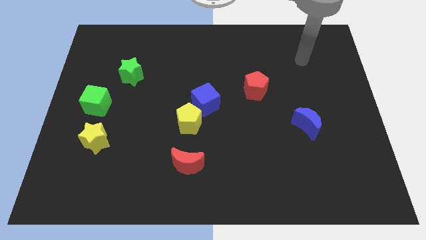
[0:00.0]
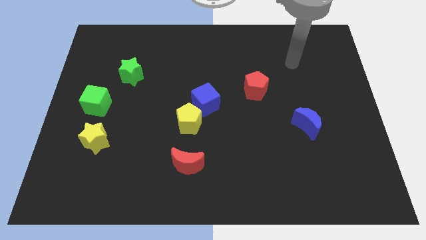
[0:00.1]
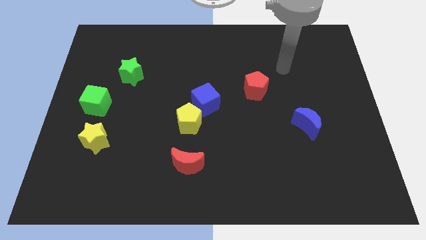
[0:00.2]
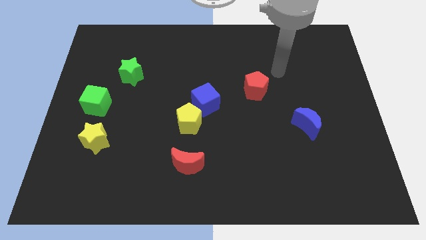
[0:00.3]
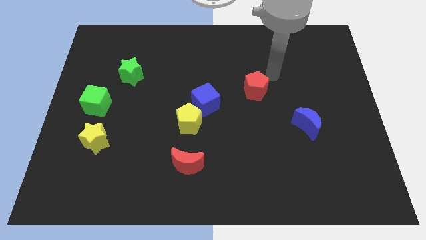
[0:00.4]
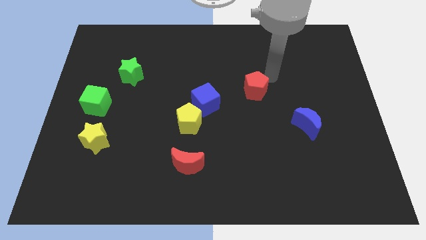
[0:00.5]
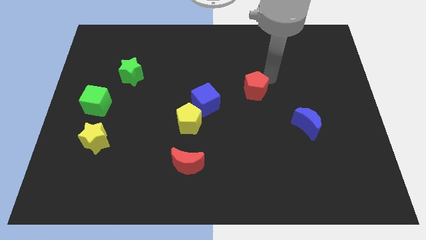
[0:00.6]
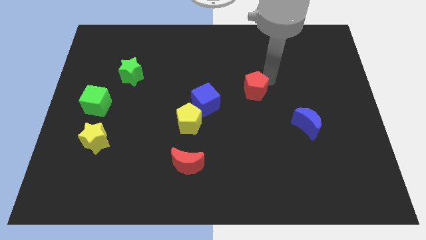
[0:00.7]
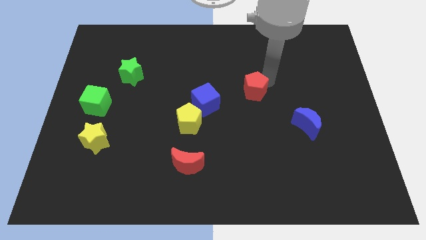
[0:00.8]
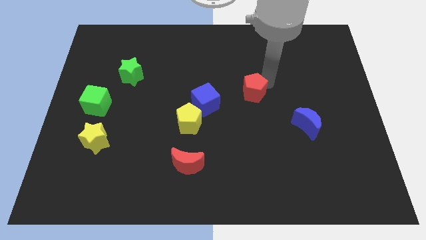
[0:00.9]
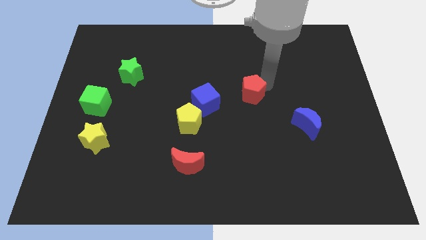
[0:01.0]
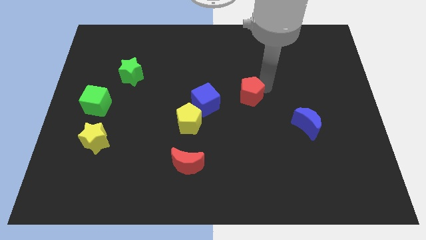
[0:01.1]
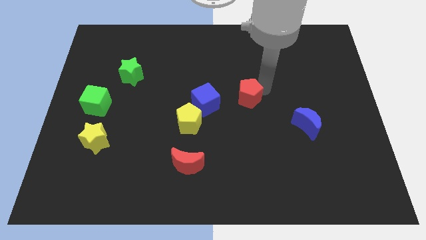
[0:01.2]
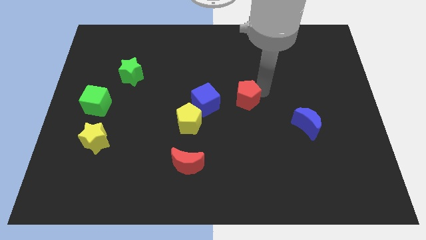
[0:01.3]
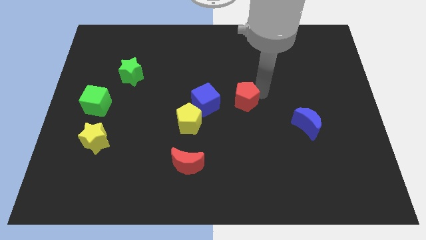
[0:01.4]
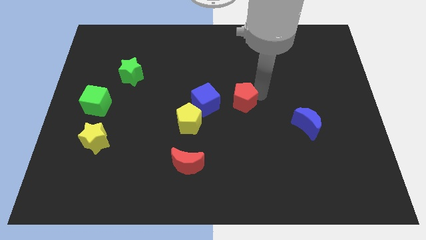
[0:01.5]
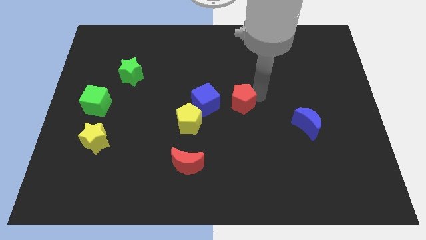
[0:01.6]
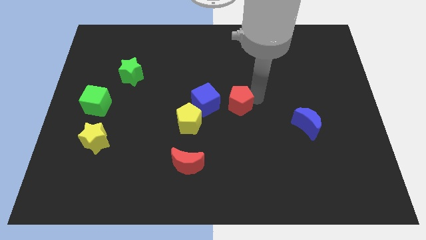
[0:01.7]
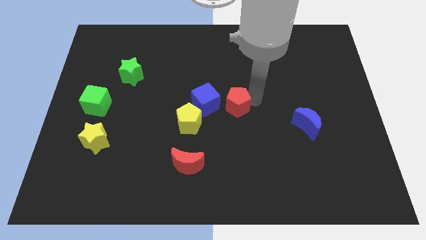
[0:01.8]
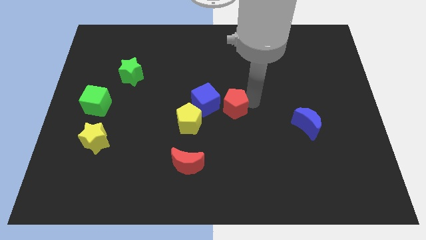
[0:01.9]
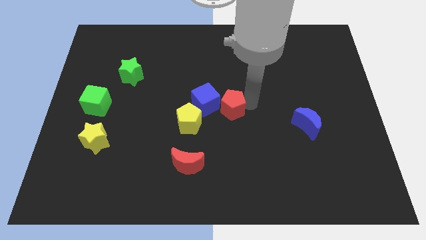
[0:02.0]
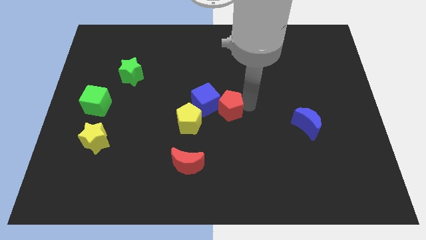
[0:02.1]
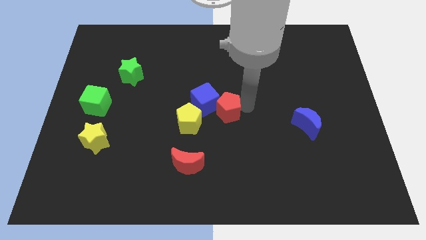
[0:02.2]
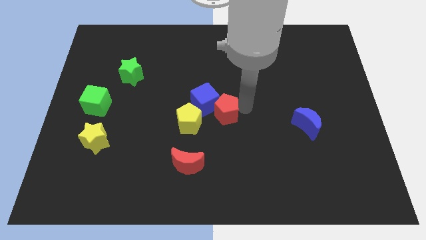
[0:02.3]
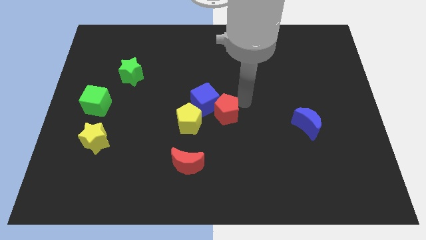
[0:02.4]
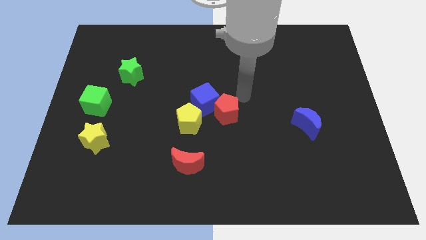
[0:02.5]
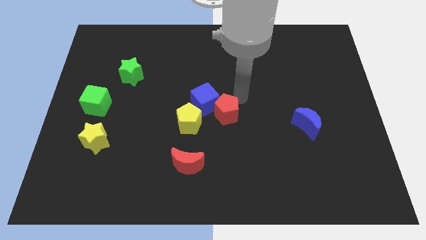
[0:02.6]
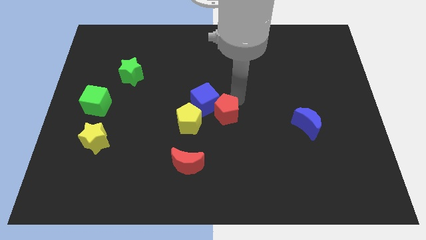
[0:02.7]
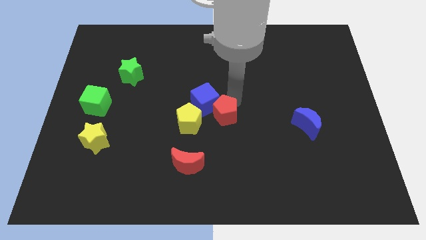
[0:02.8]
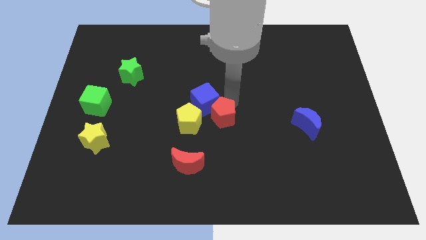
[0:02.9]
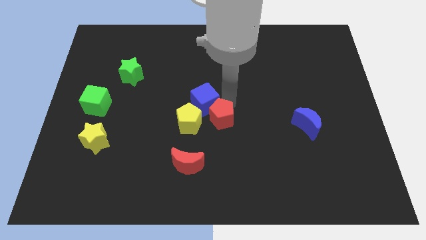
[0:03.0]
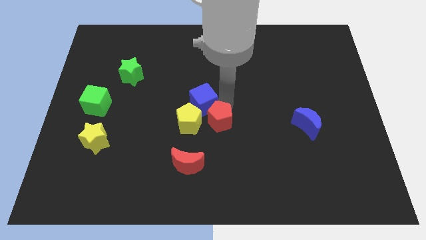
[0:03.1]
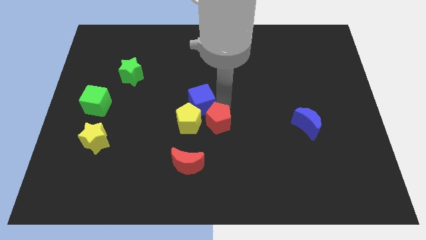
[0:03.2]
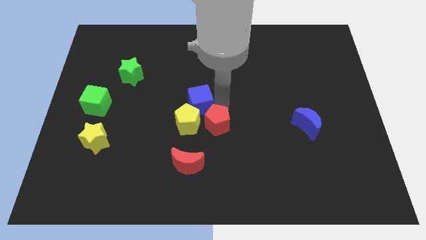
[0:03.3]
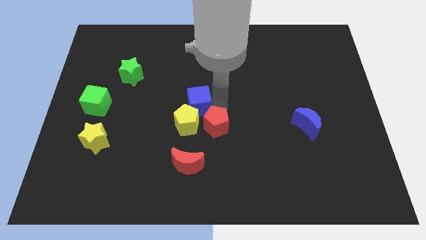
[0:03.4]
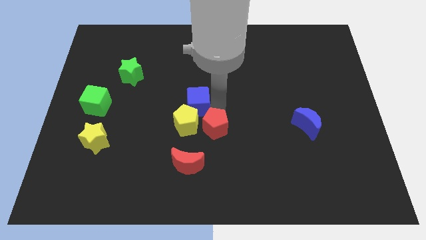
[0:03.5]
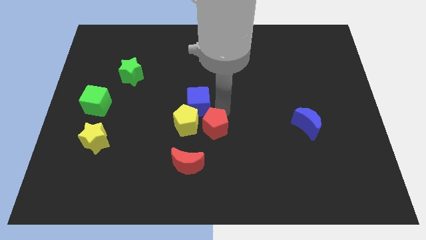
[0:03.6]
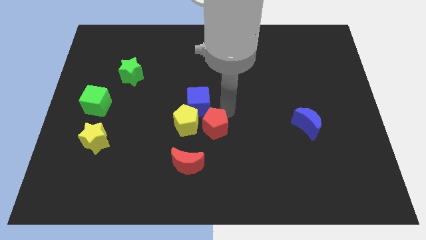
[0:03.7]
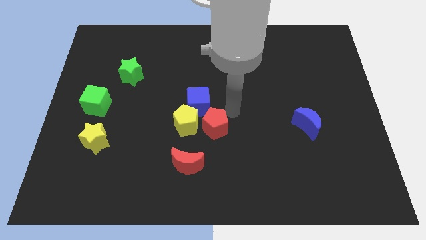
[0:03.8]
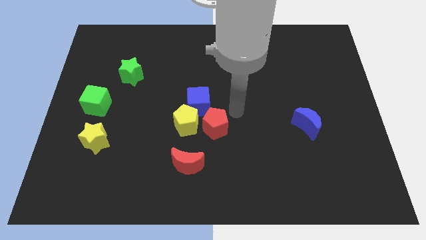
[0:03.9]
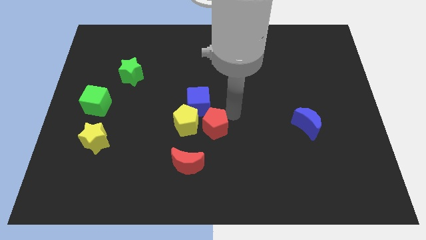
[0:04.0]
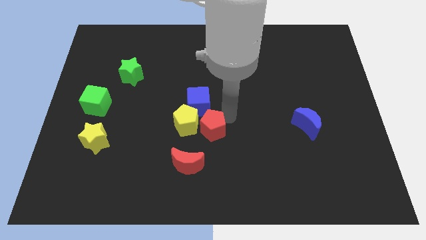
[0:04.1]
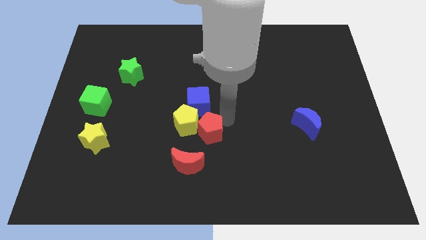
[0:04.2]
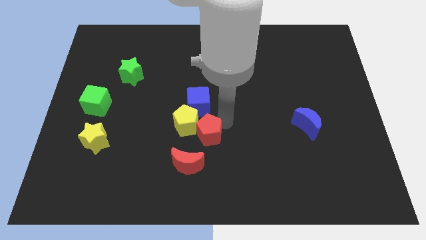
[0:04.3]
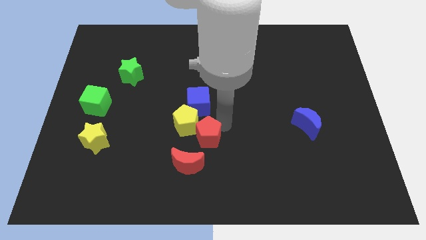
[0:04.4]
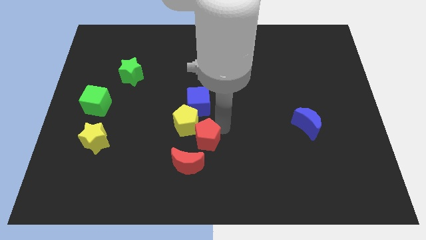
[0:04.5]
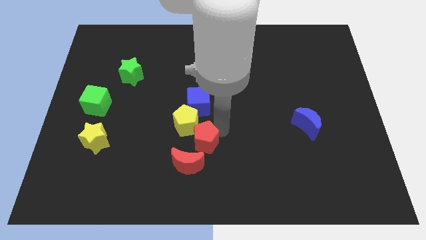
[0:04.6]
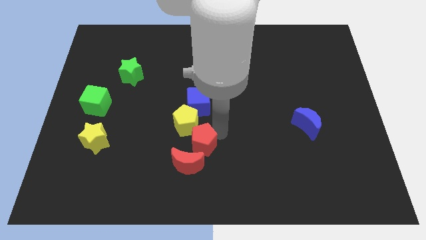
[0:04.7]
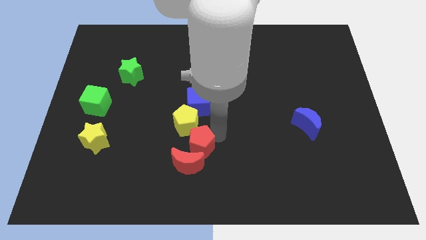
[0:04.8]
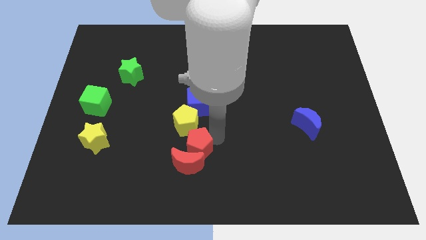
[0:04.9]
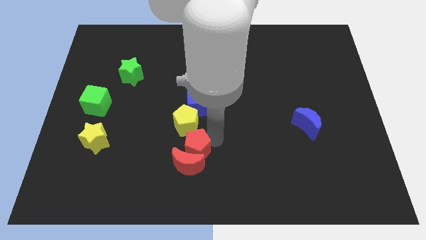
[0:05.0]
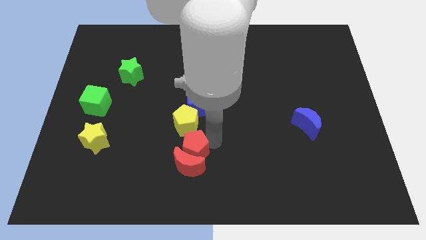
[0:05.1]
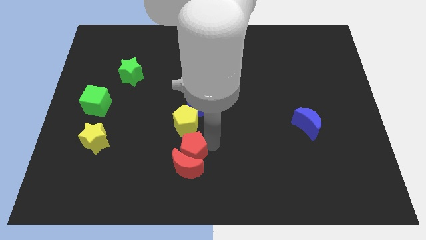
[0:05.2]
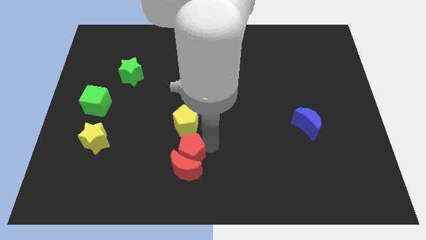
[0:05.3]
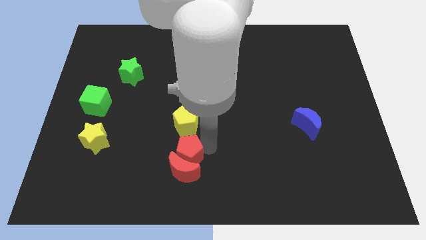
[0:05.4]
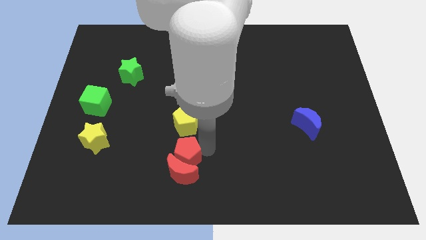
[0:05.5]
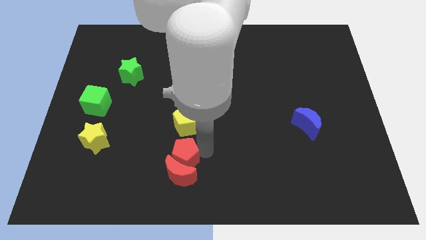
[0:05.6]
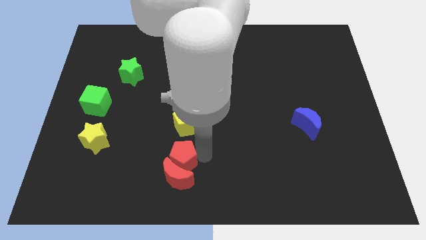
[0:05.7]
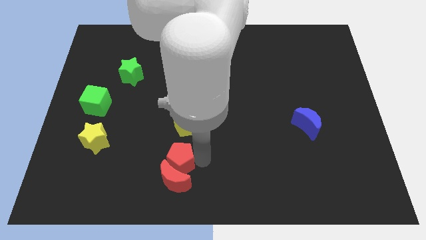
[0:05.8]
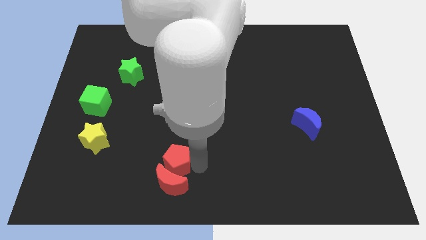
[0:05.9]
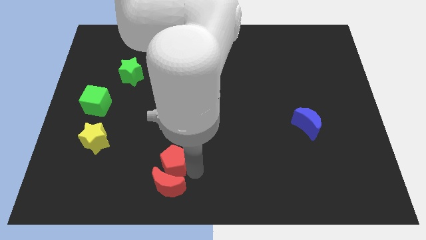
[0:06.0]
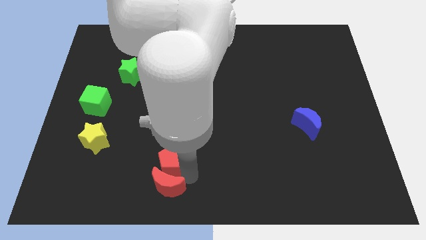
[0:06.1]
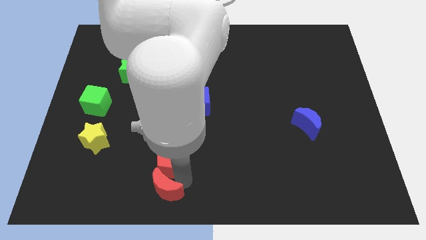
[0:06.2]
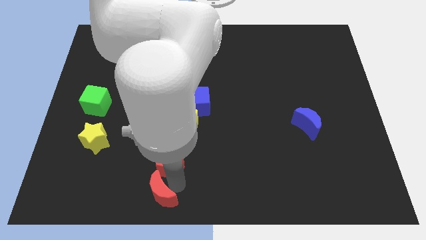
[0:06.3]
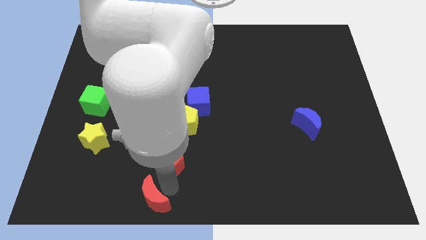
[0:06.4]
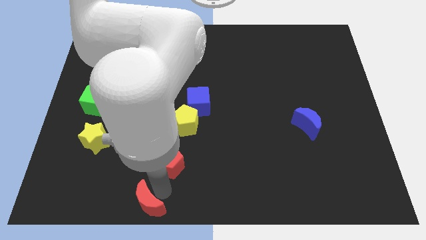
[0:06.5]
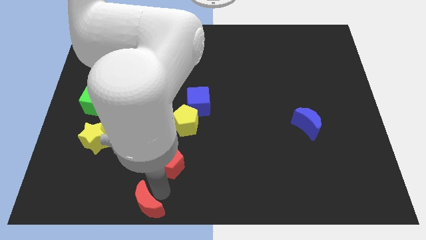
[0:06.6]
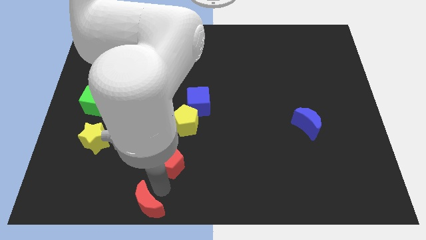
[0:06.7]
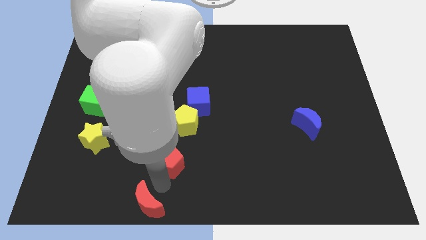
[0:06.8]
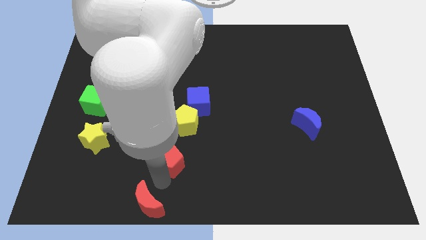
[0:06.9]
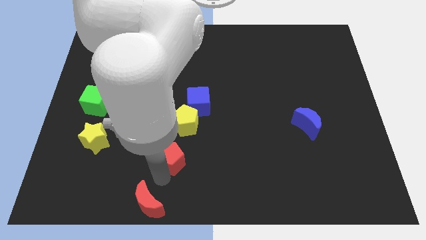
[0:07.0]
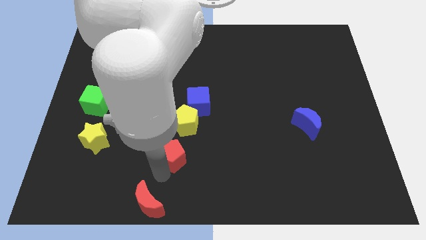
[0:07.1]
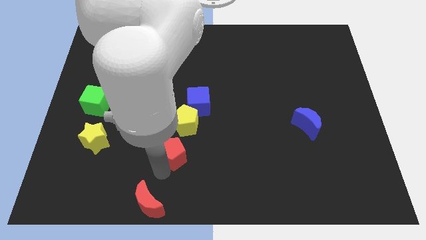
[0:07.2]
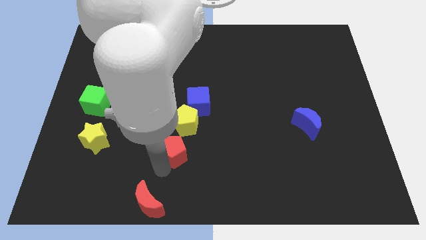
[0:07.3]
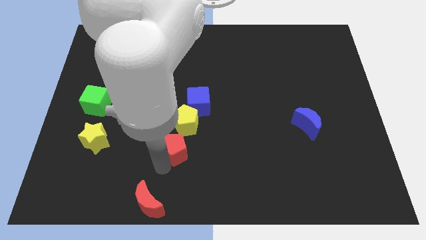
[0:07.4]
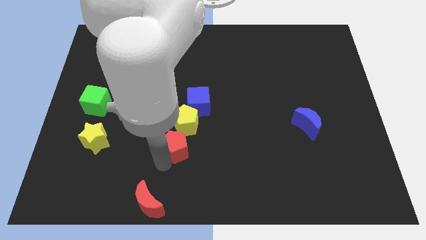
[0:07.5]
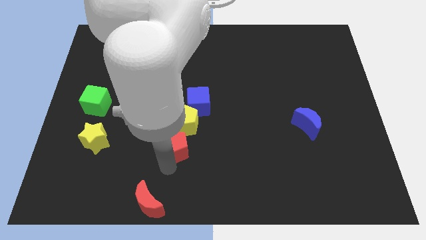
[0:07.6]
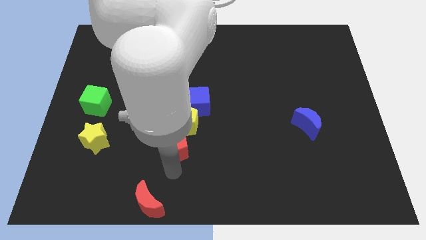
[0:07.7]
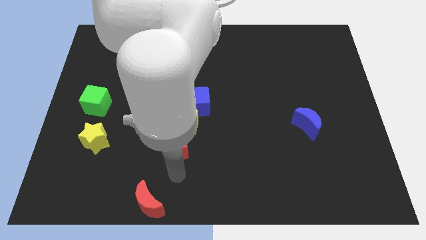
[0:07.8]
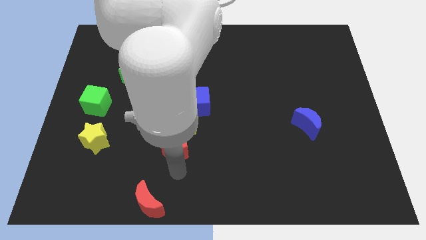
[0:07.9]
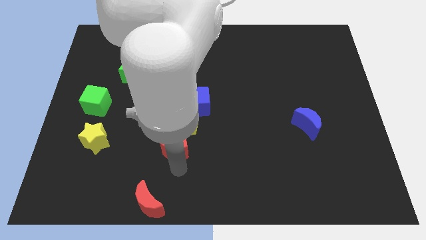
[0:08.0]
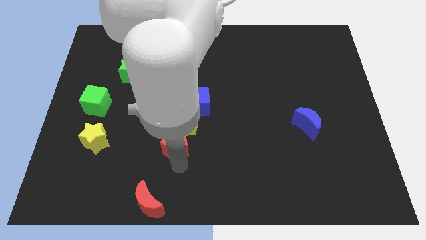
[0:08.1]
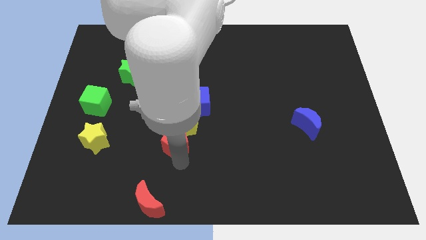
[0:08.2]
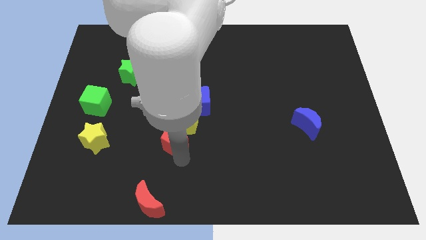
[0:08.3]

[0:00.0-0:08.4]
slide the red pentagon to the bottom left of the blue cube
